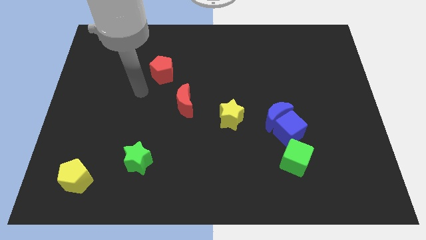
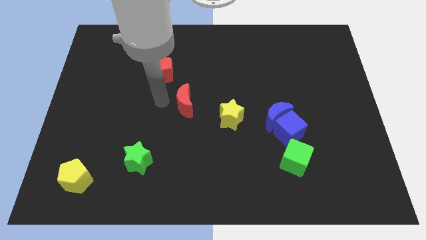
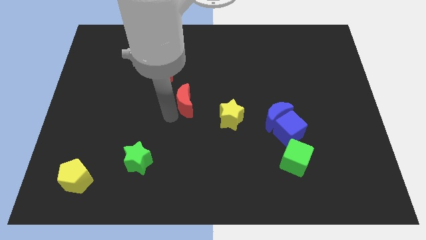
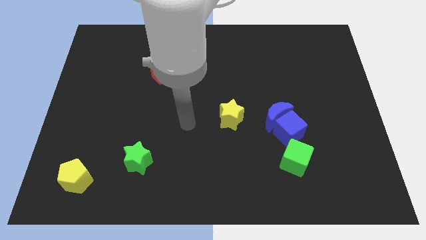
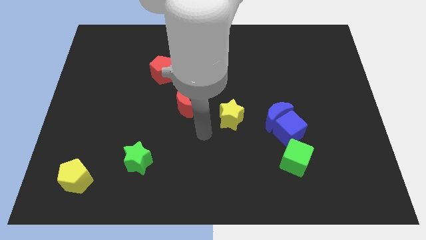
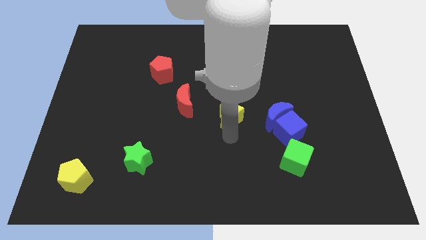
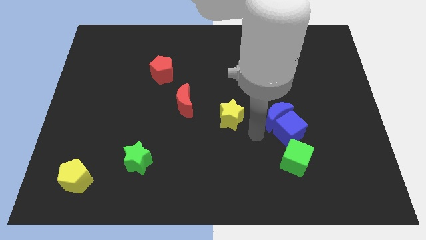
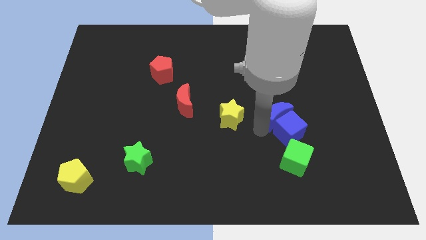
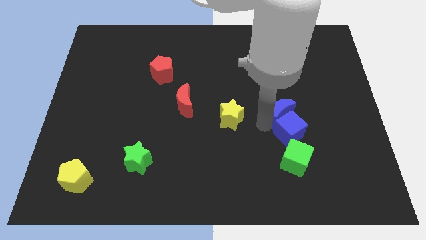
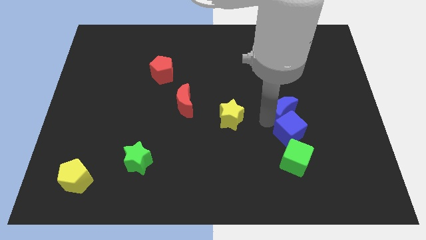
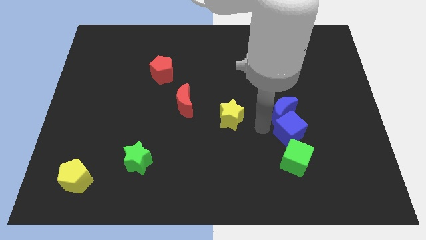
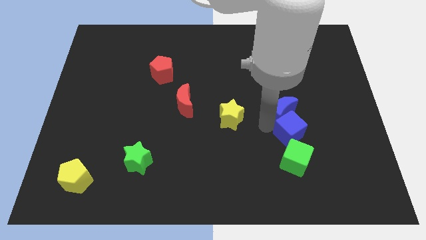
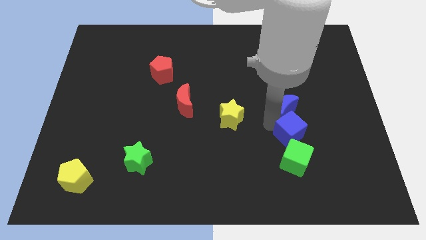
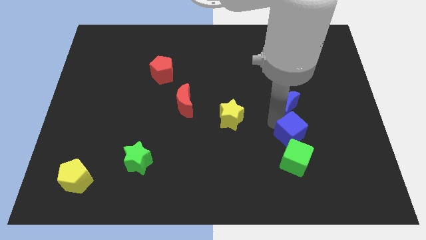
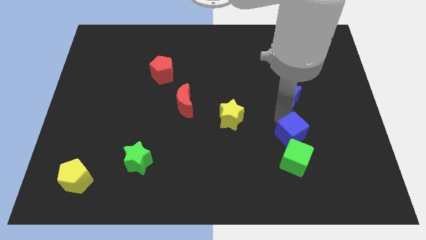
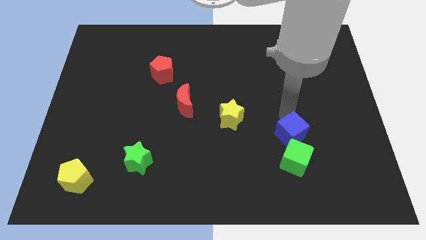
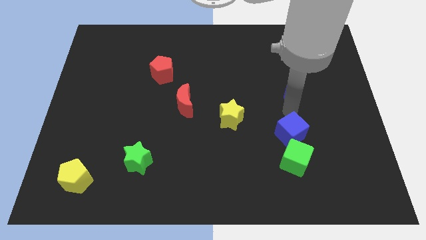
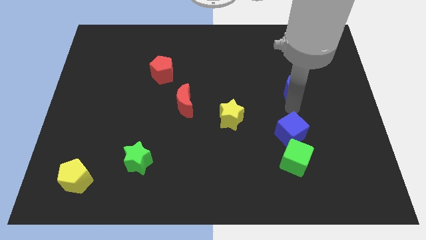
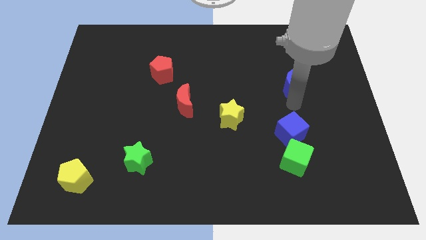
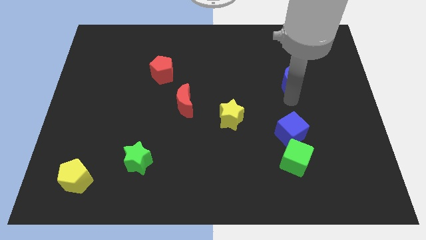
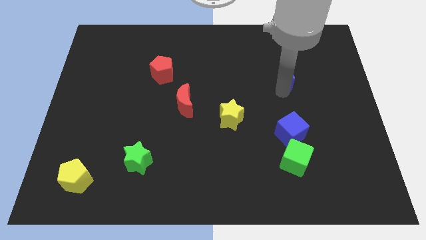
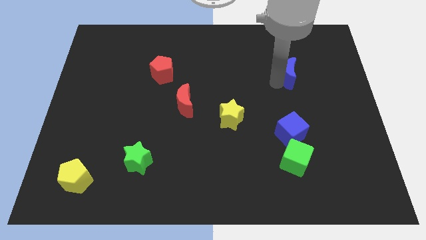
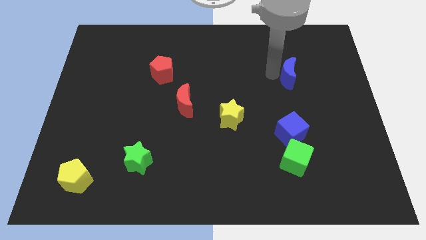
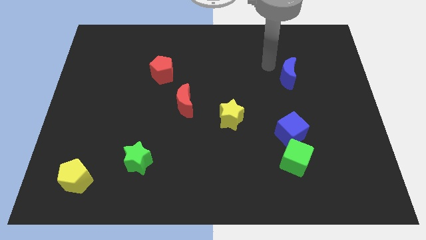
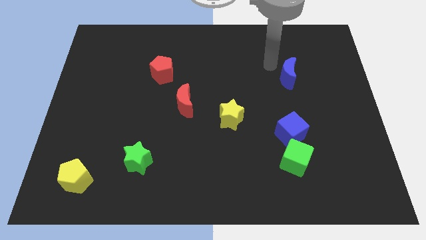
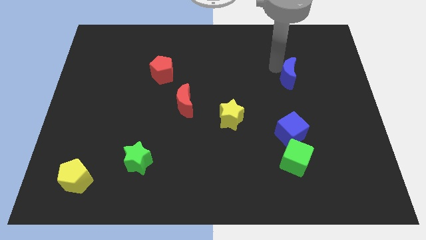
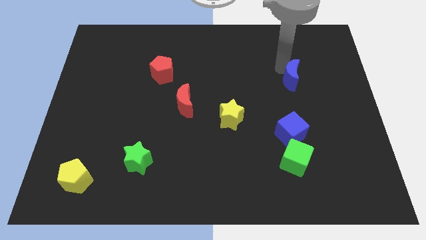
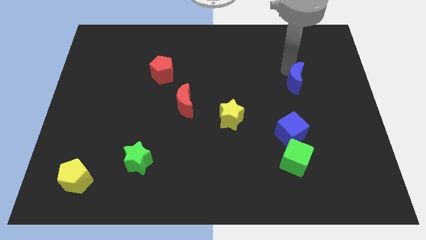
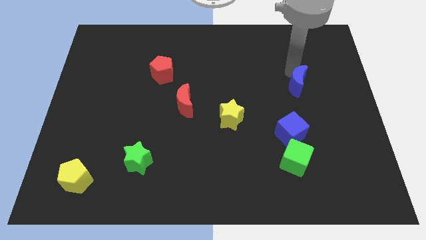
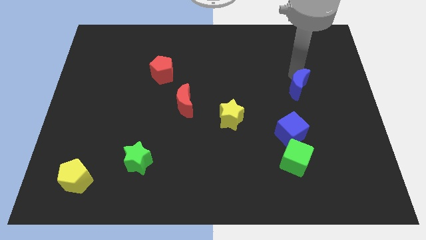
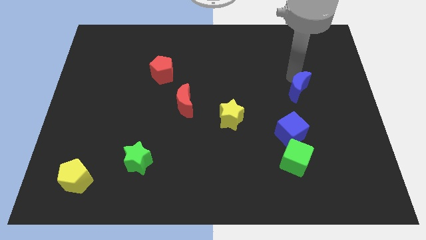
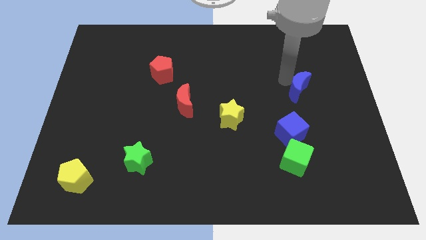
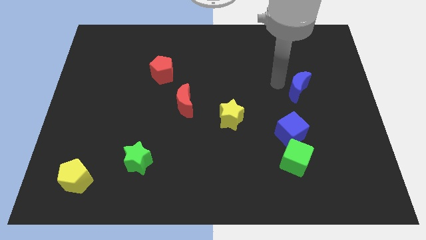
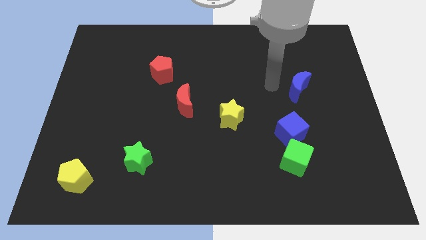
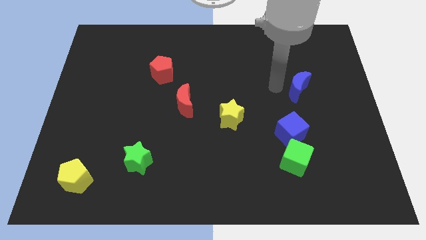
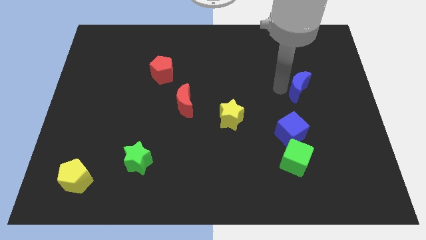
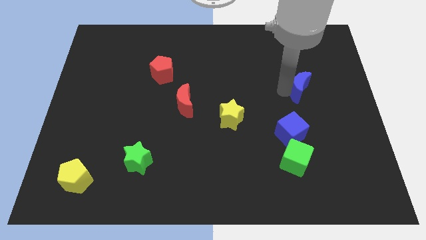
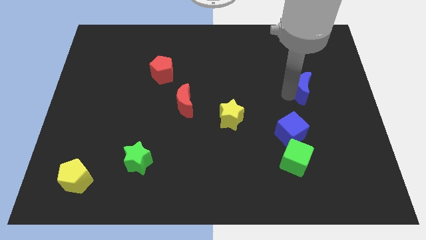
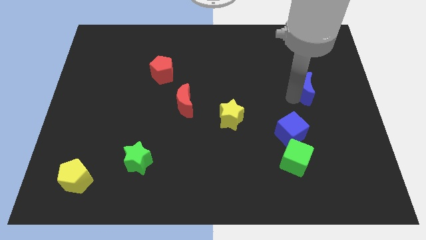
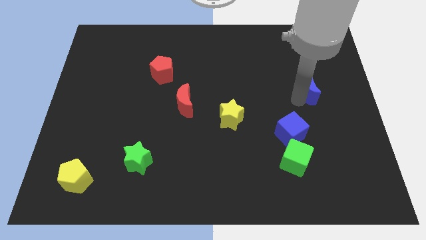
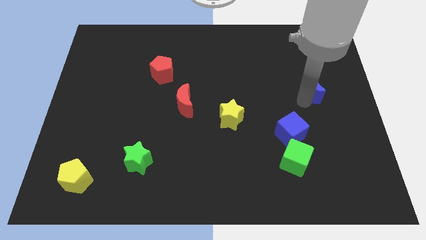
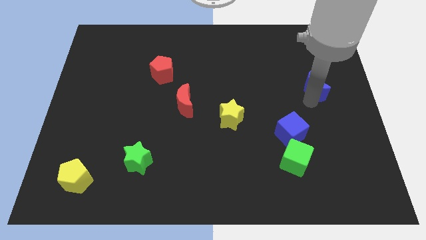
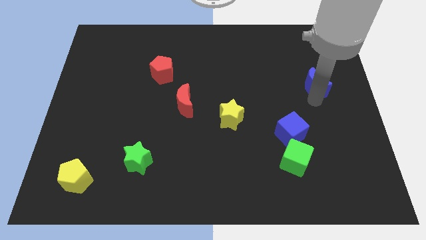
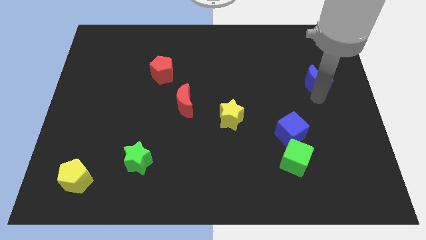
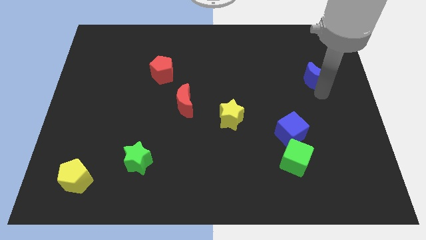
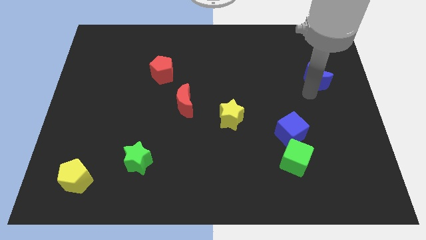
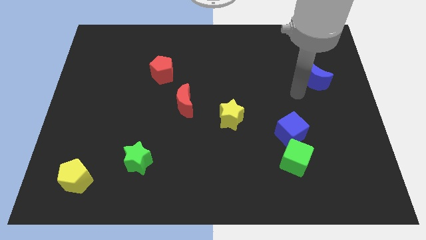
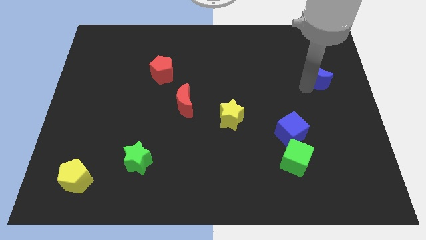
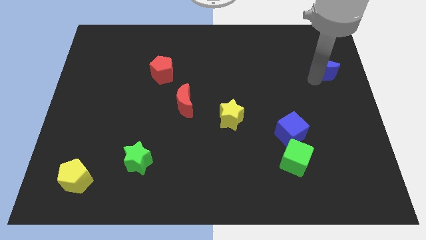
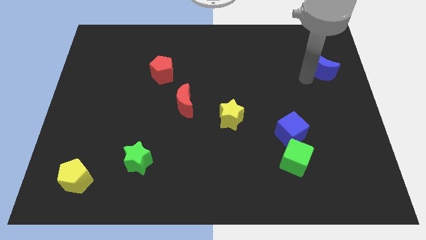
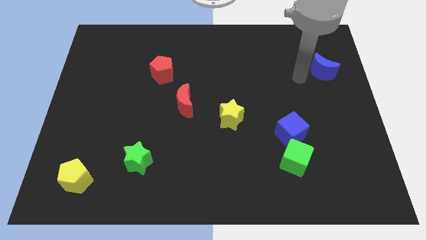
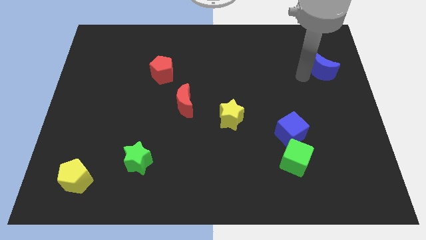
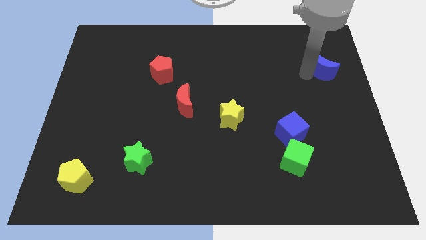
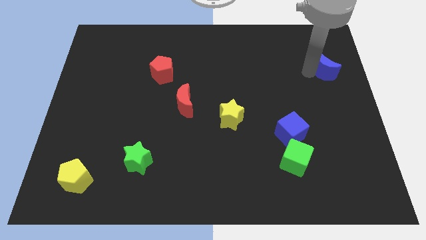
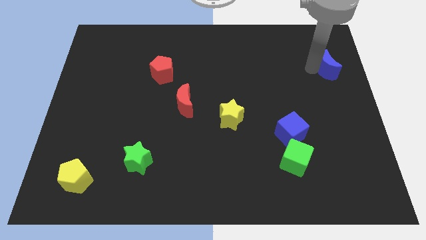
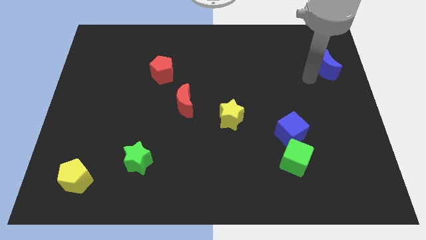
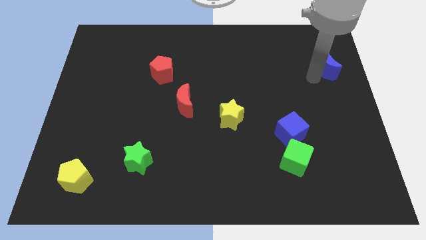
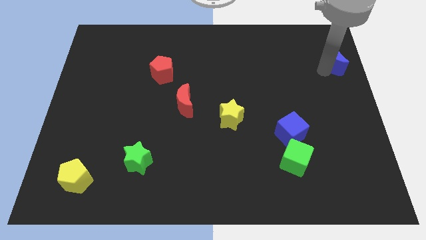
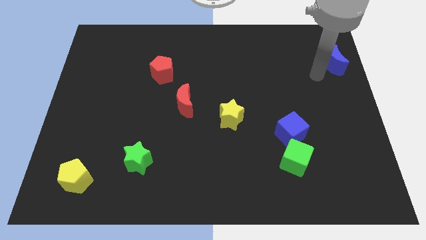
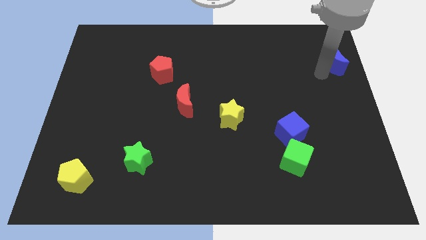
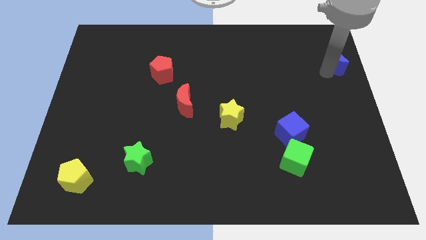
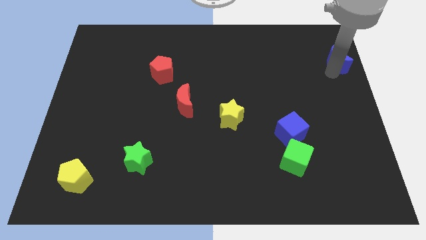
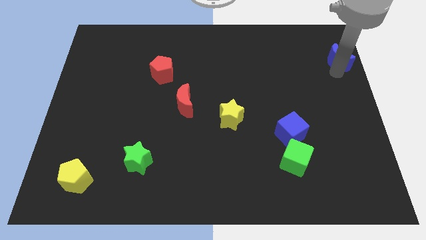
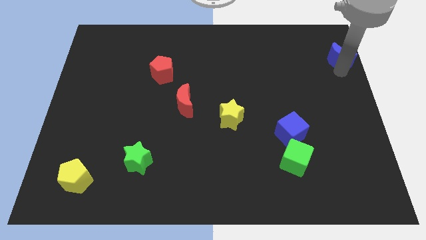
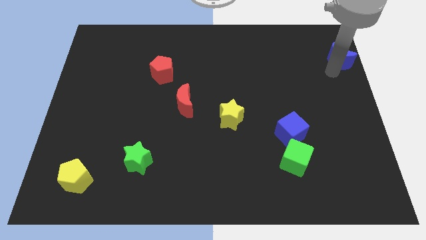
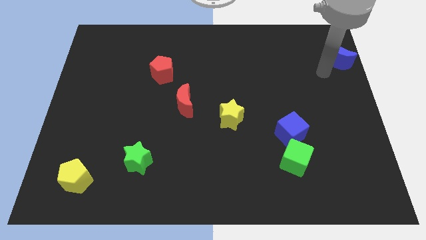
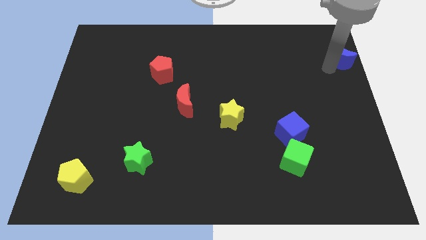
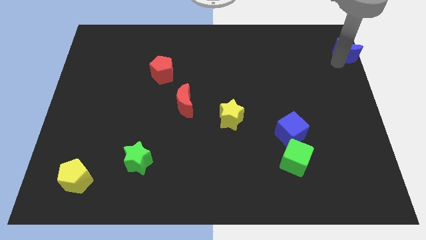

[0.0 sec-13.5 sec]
put the blue moon to the top right
